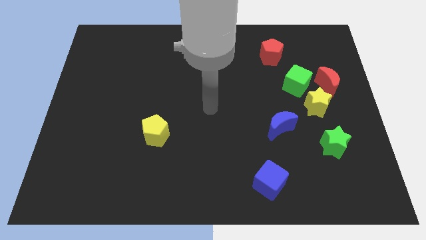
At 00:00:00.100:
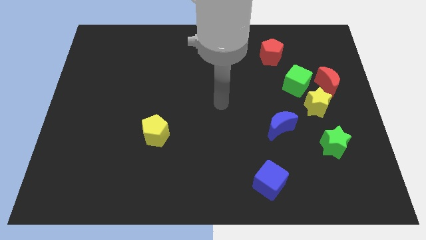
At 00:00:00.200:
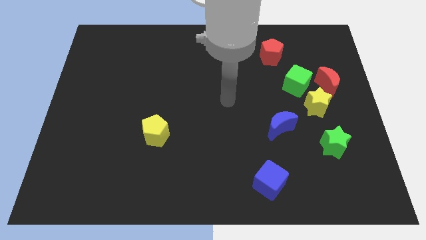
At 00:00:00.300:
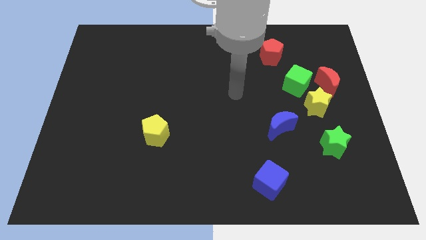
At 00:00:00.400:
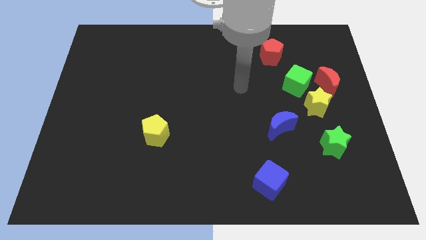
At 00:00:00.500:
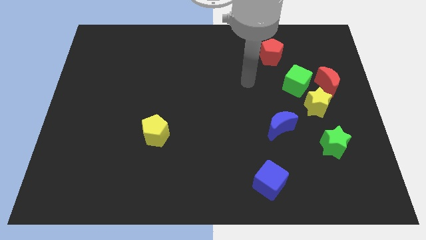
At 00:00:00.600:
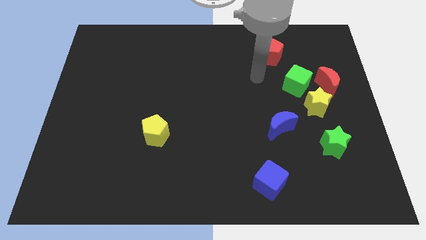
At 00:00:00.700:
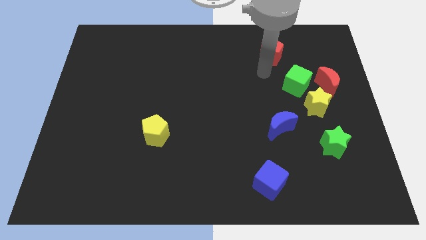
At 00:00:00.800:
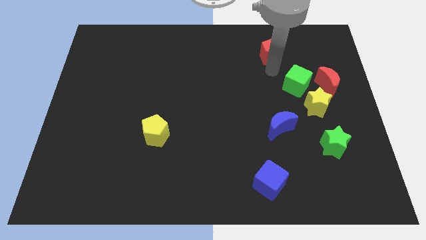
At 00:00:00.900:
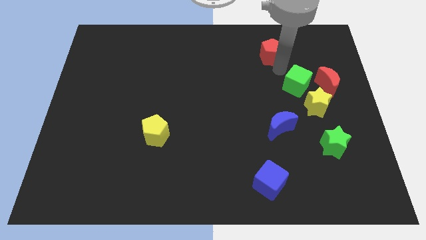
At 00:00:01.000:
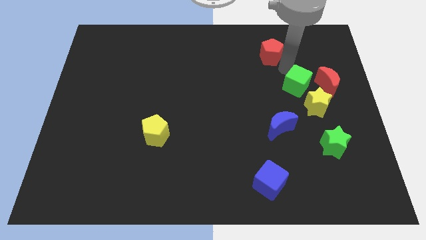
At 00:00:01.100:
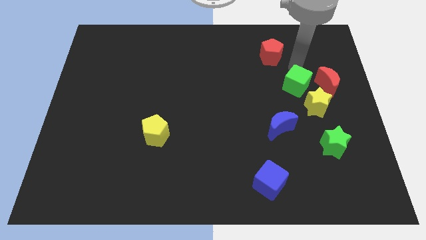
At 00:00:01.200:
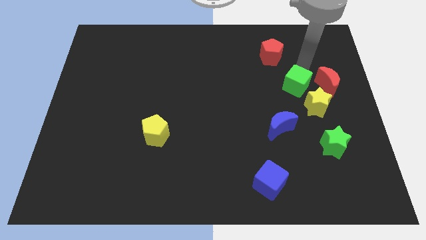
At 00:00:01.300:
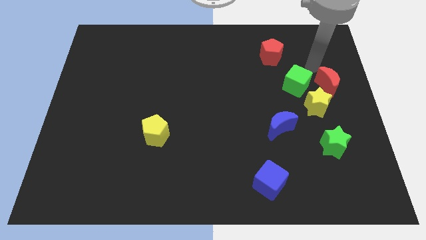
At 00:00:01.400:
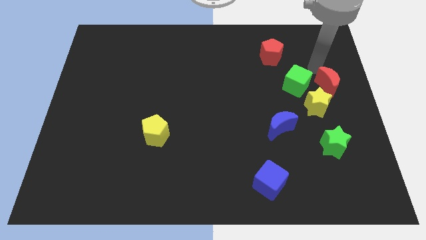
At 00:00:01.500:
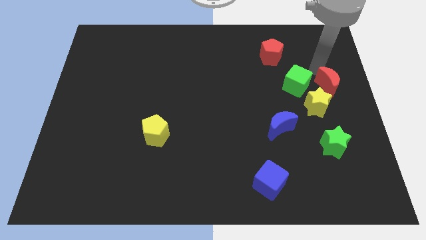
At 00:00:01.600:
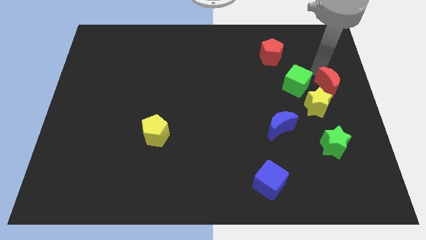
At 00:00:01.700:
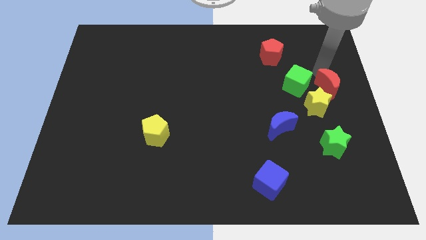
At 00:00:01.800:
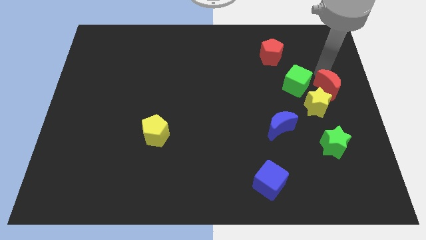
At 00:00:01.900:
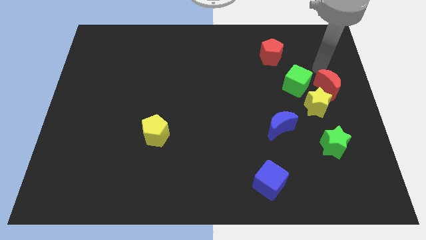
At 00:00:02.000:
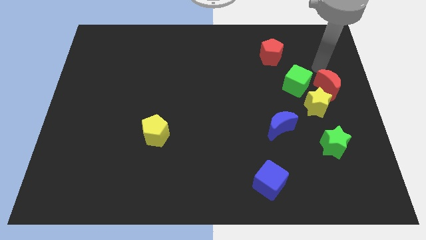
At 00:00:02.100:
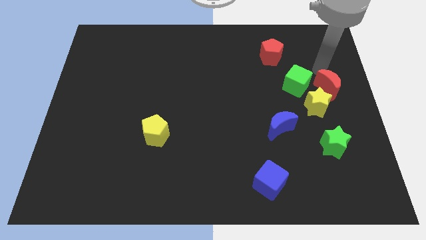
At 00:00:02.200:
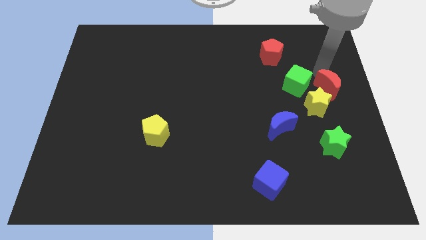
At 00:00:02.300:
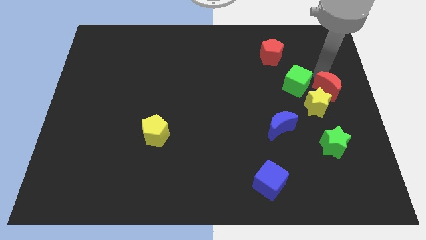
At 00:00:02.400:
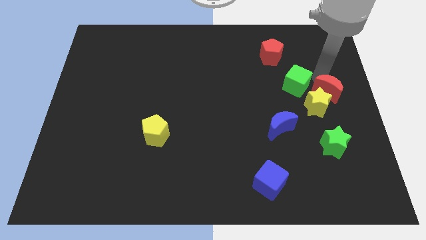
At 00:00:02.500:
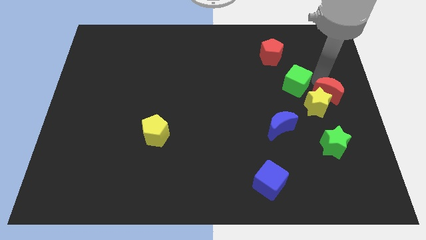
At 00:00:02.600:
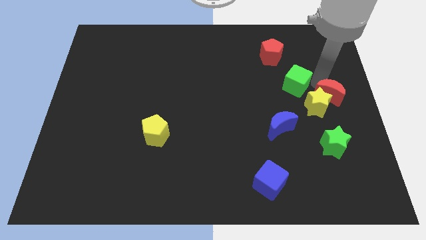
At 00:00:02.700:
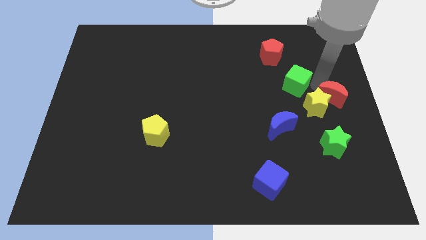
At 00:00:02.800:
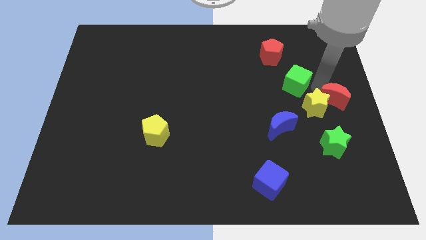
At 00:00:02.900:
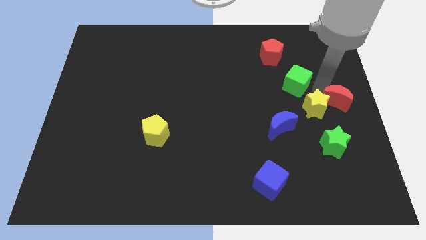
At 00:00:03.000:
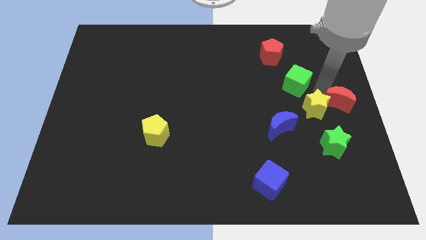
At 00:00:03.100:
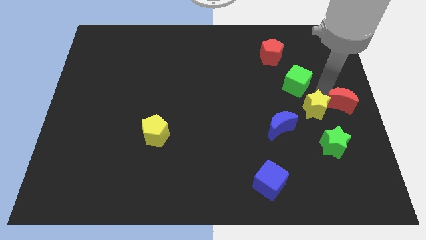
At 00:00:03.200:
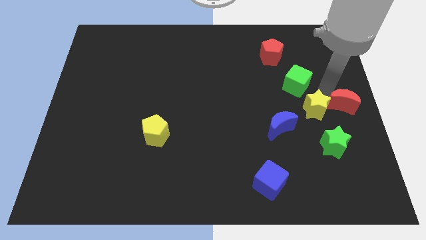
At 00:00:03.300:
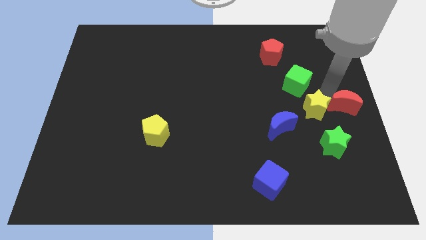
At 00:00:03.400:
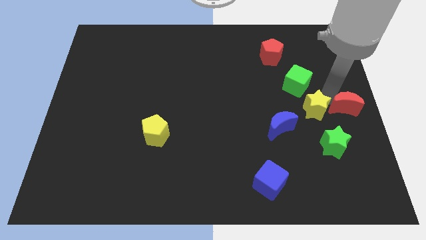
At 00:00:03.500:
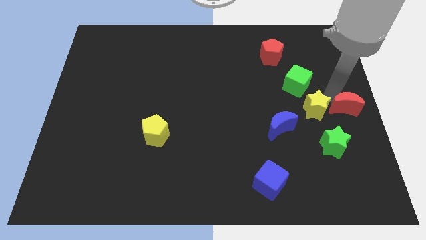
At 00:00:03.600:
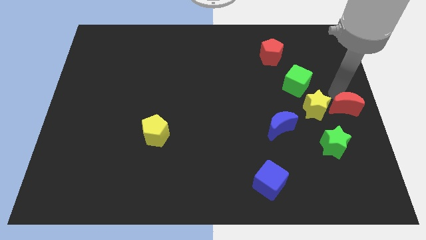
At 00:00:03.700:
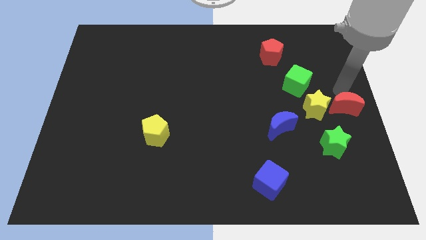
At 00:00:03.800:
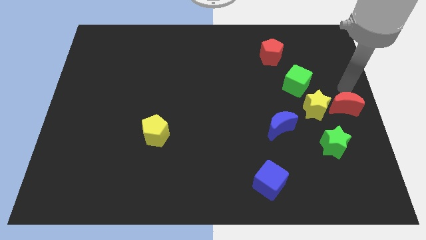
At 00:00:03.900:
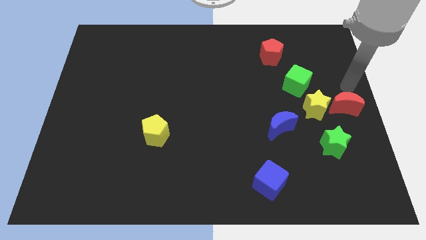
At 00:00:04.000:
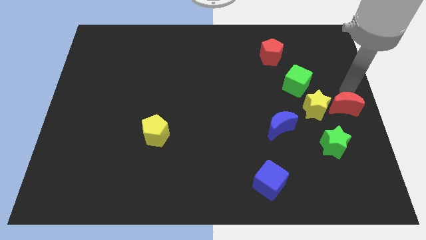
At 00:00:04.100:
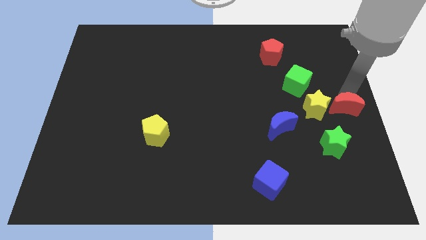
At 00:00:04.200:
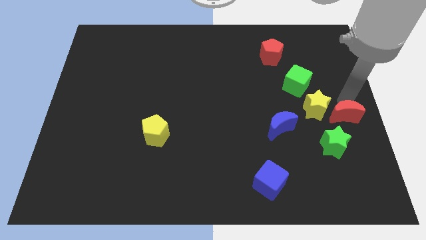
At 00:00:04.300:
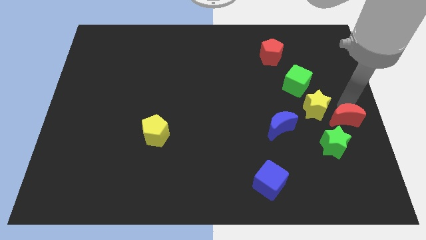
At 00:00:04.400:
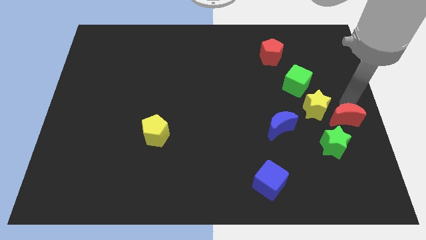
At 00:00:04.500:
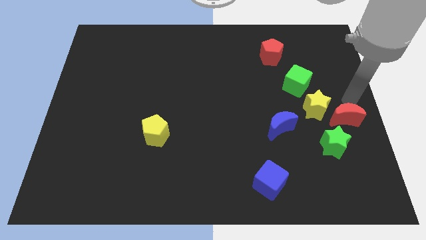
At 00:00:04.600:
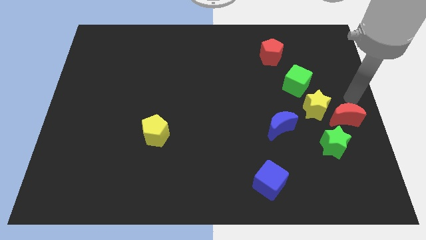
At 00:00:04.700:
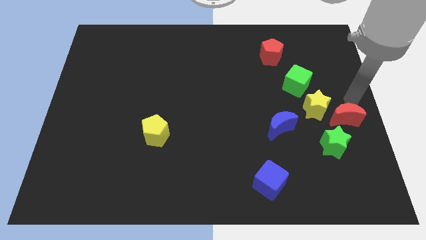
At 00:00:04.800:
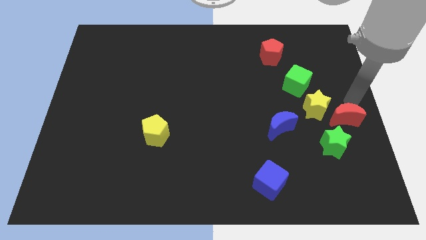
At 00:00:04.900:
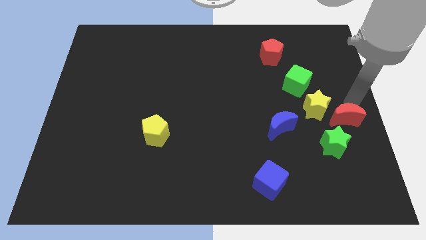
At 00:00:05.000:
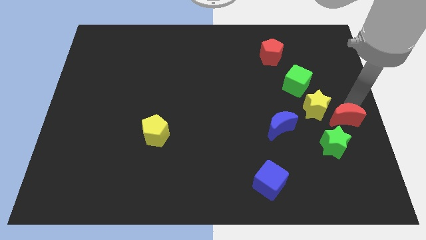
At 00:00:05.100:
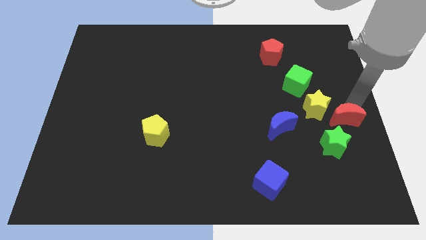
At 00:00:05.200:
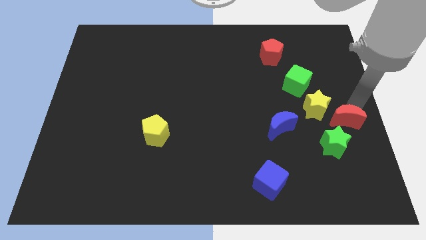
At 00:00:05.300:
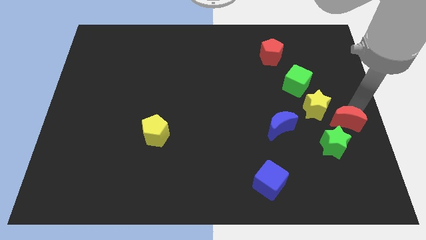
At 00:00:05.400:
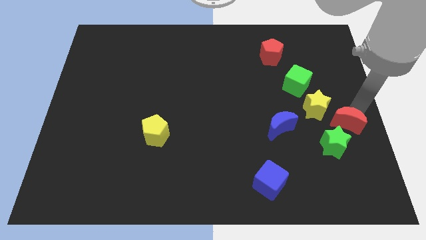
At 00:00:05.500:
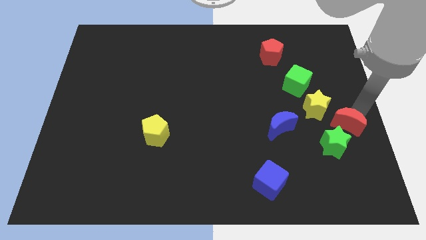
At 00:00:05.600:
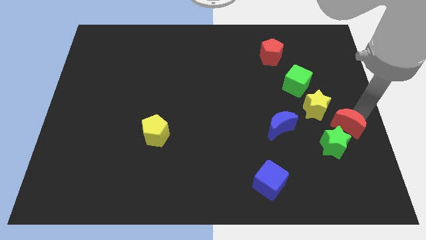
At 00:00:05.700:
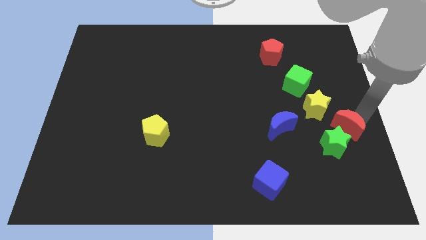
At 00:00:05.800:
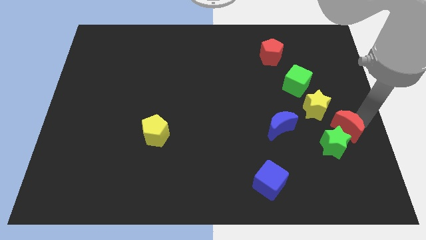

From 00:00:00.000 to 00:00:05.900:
push the red moon to the green star
